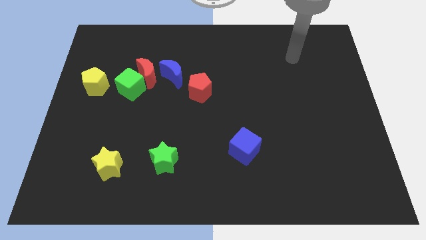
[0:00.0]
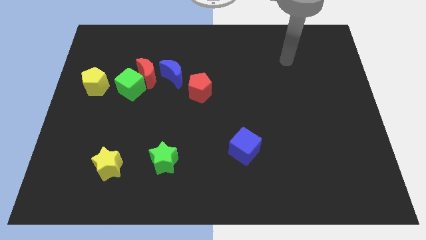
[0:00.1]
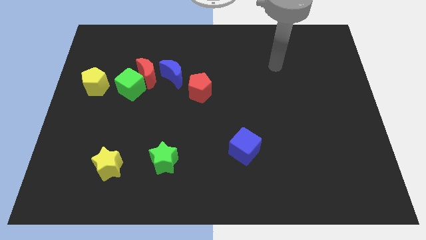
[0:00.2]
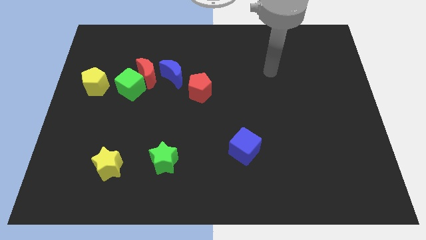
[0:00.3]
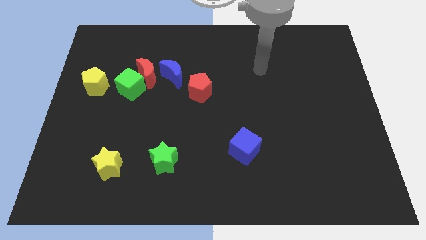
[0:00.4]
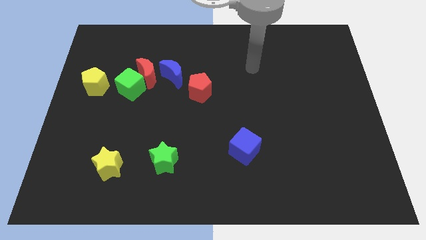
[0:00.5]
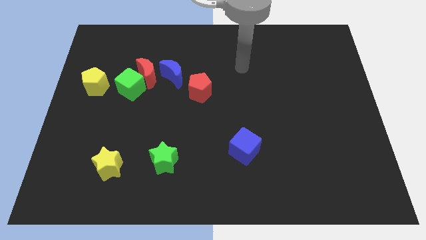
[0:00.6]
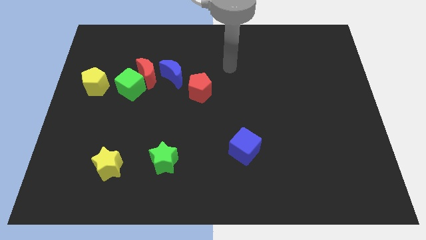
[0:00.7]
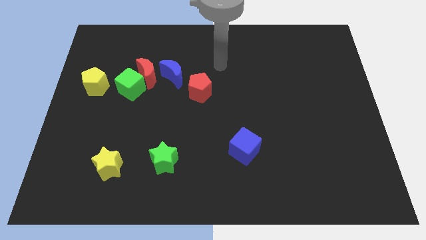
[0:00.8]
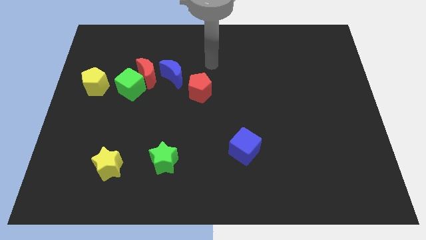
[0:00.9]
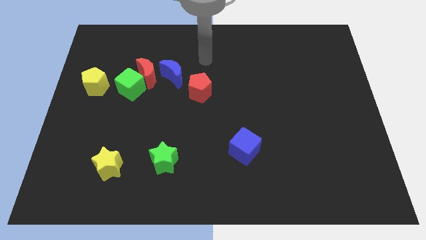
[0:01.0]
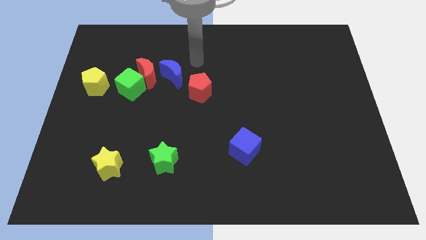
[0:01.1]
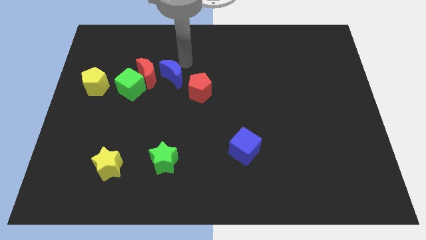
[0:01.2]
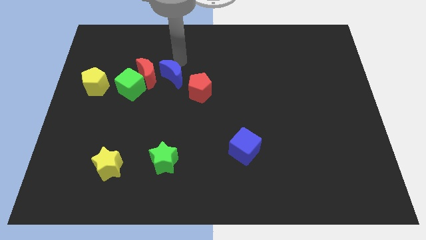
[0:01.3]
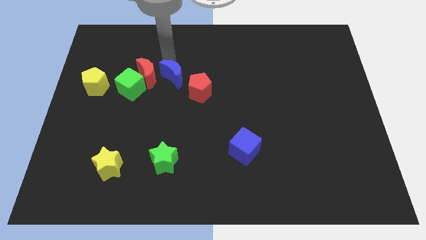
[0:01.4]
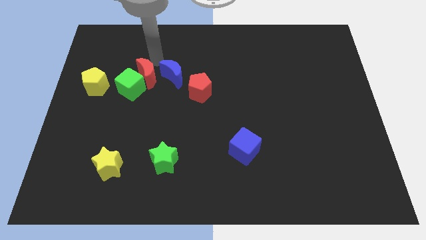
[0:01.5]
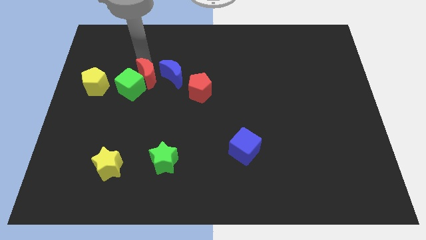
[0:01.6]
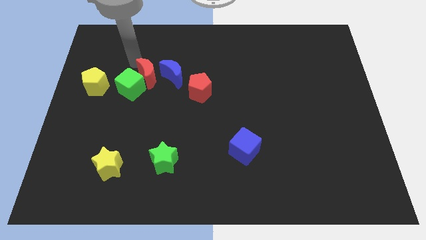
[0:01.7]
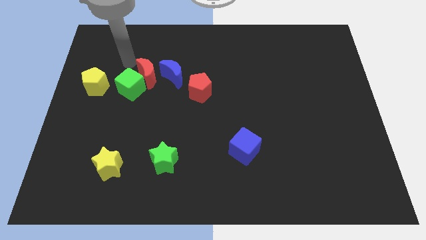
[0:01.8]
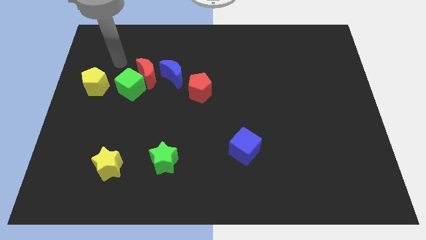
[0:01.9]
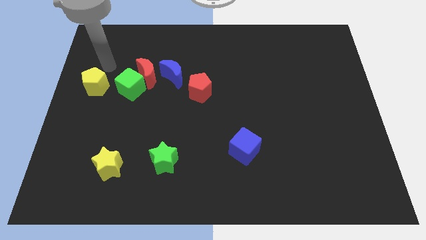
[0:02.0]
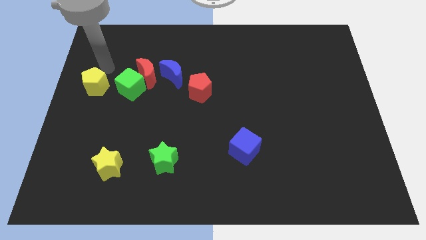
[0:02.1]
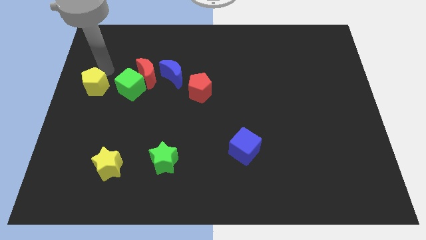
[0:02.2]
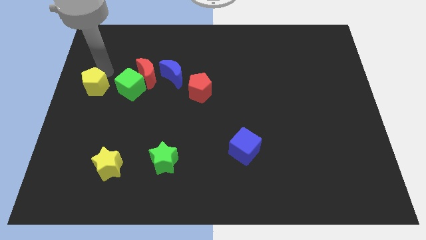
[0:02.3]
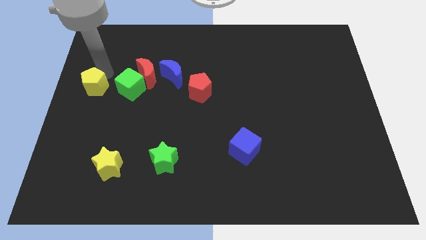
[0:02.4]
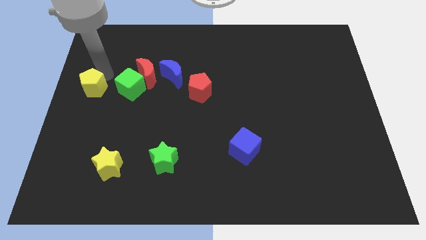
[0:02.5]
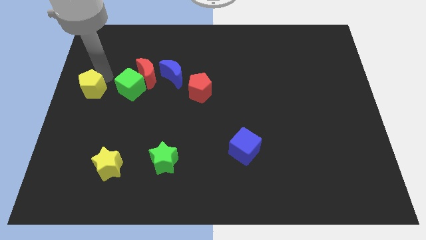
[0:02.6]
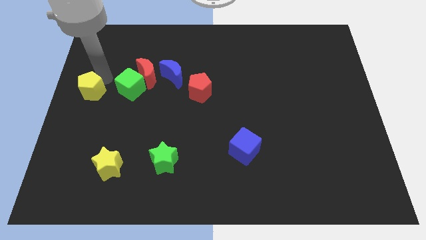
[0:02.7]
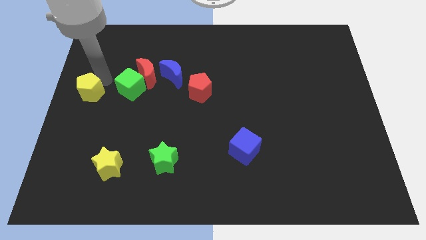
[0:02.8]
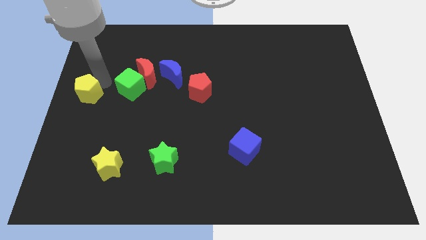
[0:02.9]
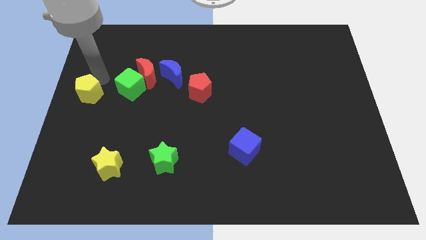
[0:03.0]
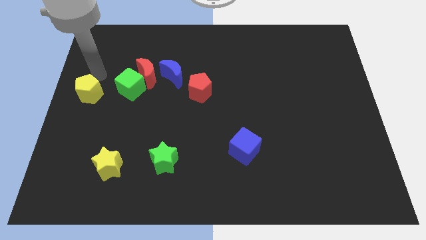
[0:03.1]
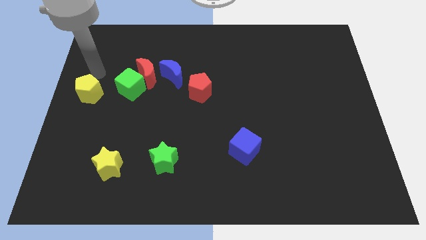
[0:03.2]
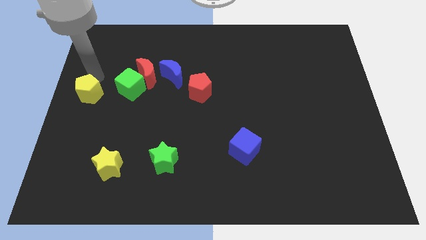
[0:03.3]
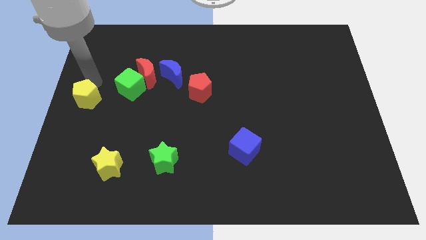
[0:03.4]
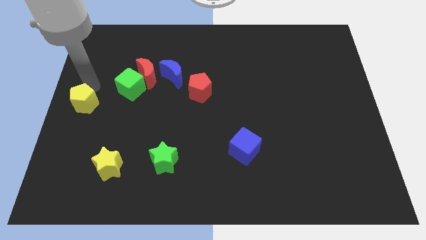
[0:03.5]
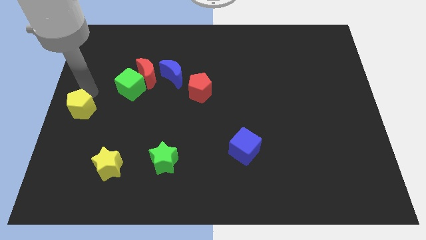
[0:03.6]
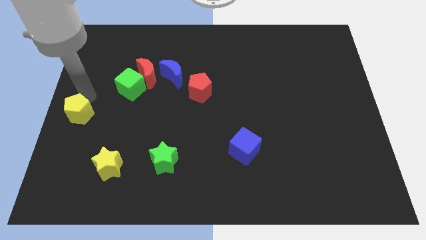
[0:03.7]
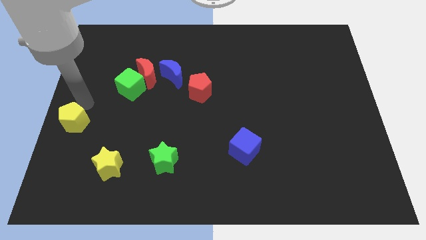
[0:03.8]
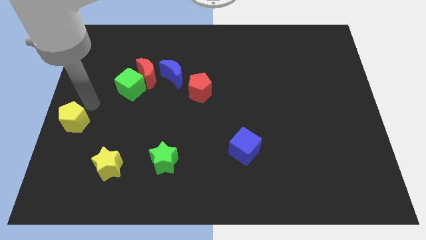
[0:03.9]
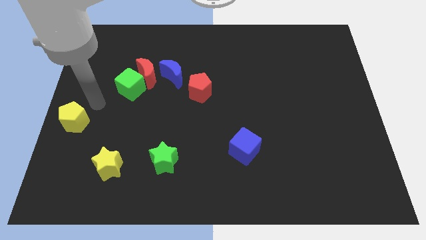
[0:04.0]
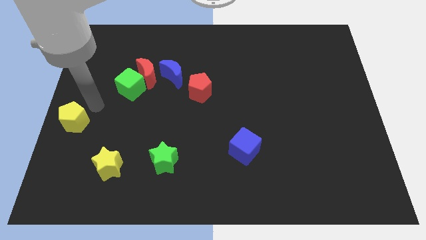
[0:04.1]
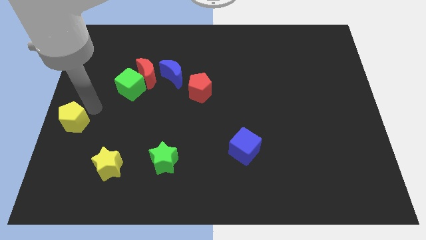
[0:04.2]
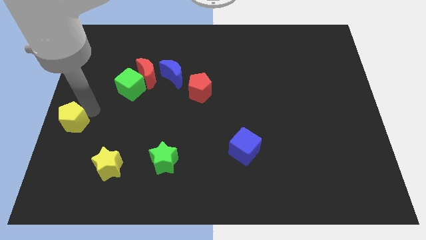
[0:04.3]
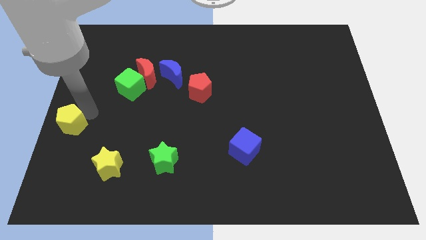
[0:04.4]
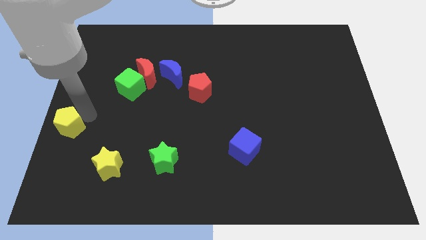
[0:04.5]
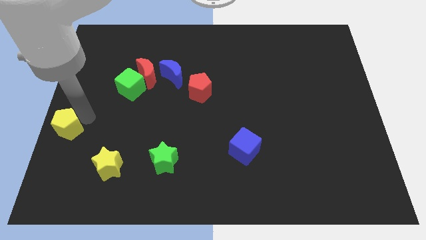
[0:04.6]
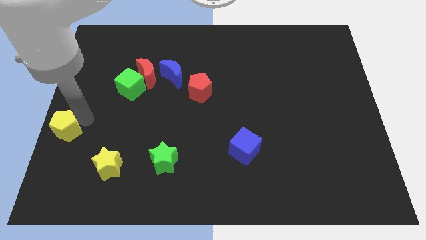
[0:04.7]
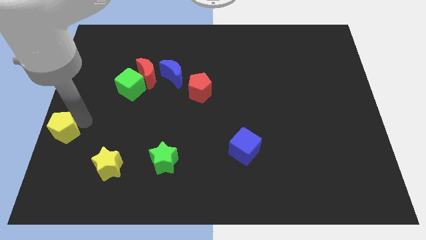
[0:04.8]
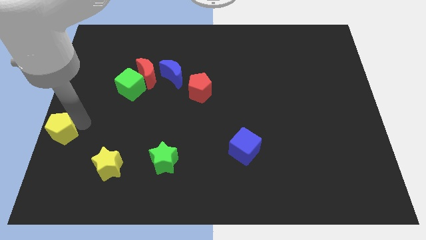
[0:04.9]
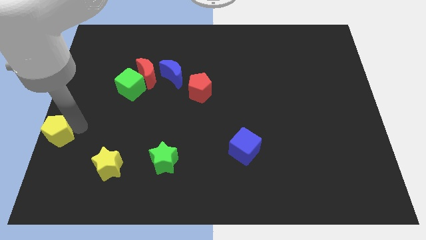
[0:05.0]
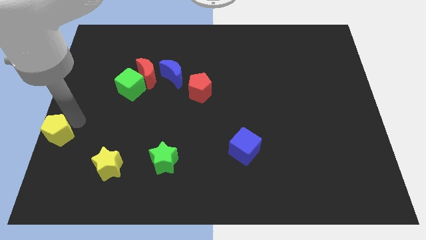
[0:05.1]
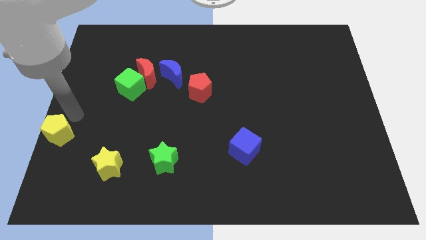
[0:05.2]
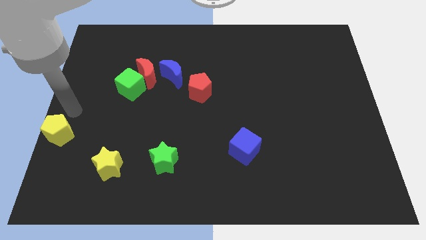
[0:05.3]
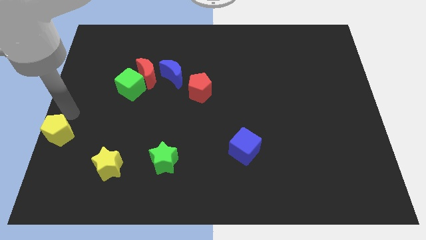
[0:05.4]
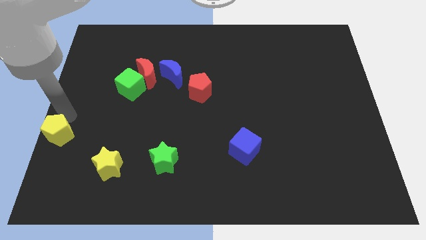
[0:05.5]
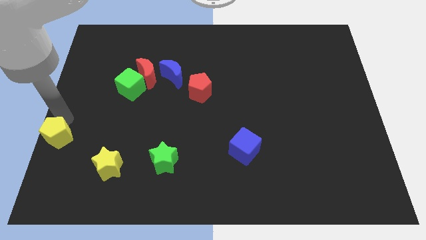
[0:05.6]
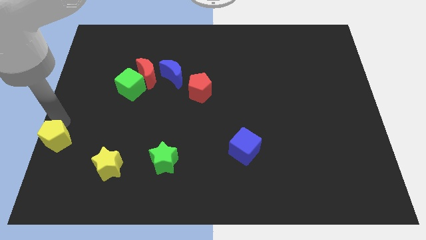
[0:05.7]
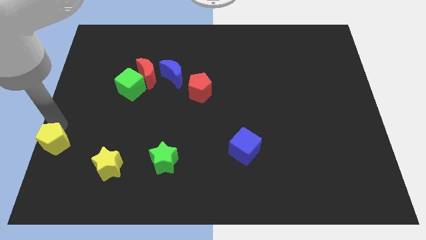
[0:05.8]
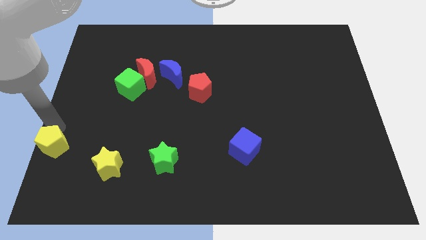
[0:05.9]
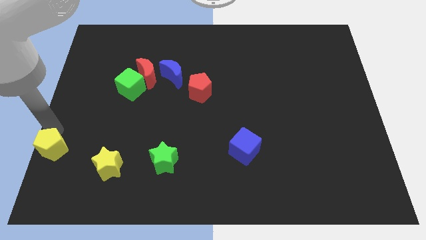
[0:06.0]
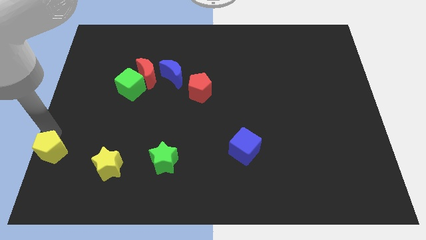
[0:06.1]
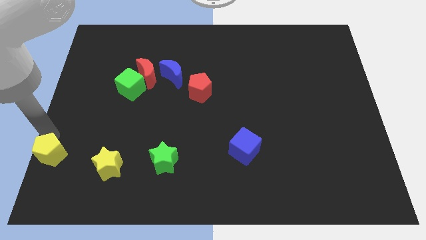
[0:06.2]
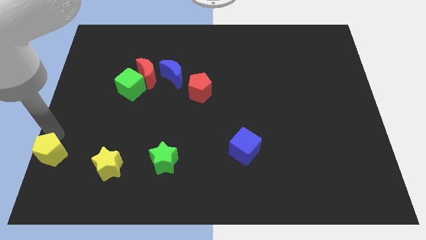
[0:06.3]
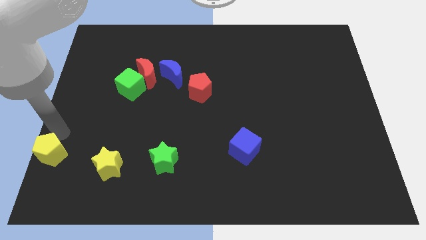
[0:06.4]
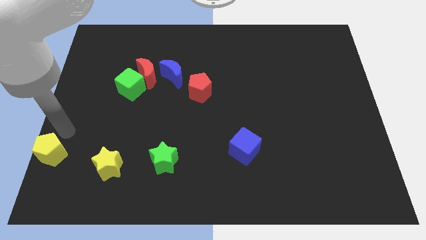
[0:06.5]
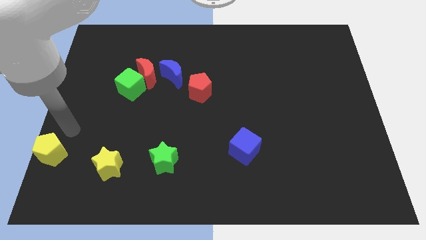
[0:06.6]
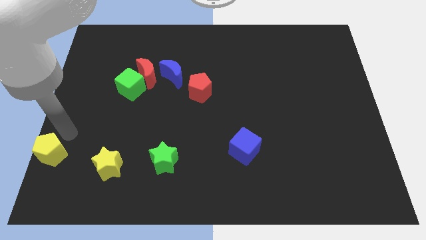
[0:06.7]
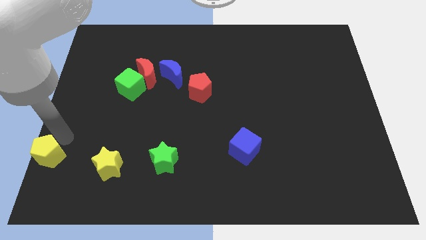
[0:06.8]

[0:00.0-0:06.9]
slide the yellow pentagon to the bottom left corner

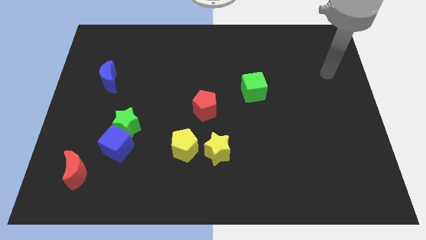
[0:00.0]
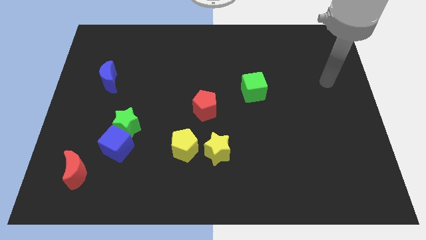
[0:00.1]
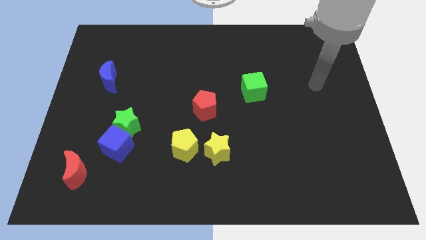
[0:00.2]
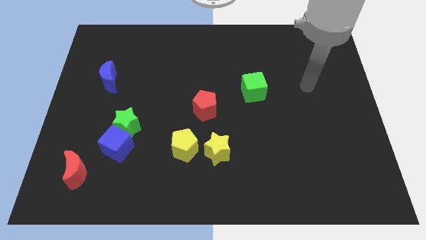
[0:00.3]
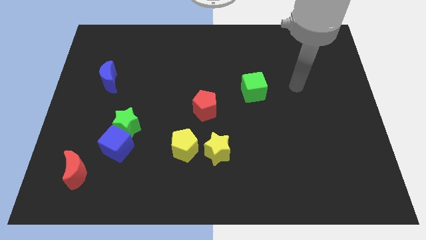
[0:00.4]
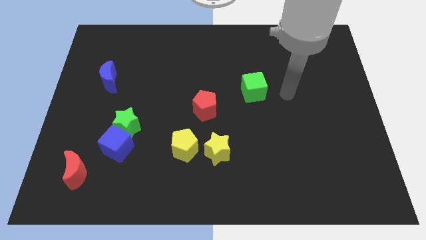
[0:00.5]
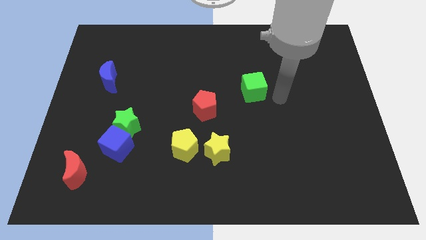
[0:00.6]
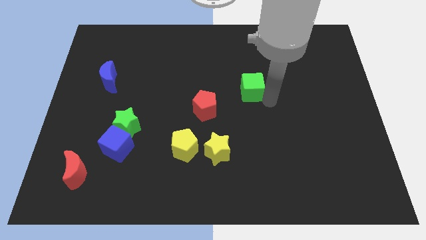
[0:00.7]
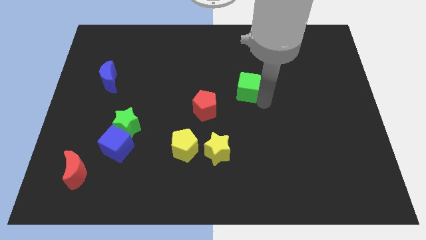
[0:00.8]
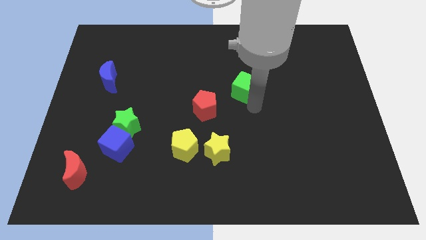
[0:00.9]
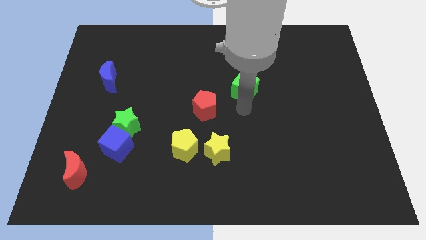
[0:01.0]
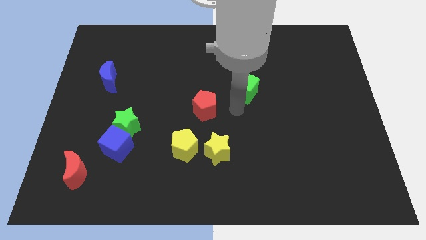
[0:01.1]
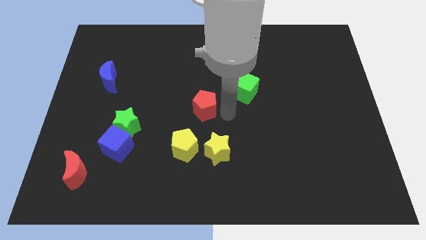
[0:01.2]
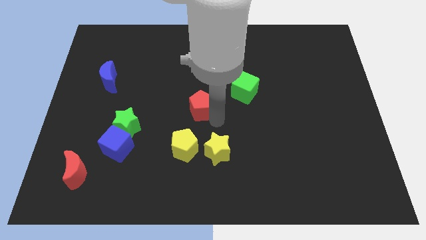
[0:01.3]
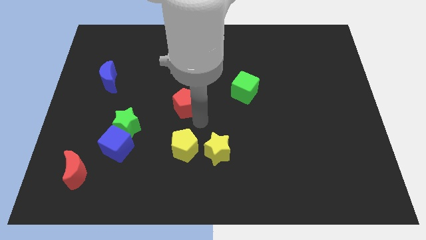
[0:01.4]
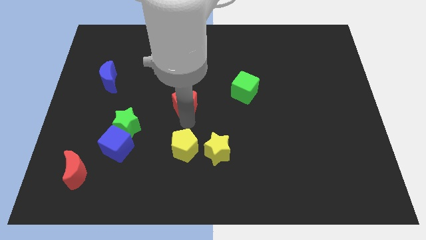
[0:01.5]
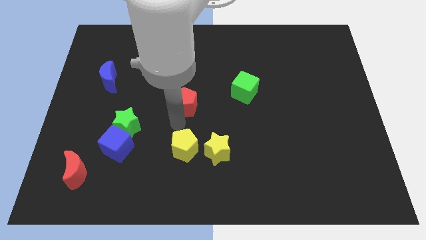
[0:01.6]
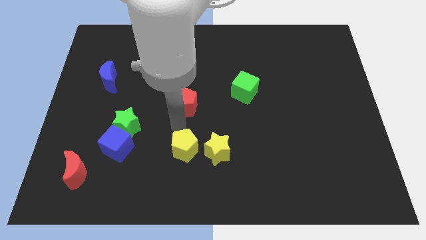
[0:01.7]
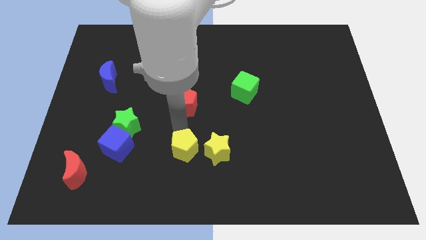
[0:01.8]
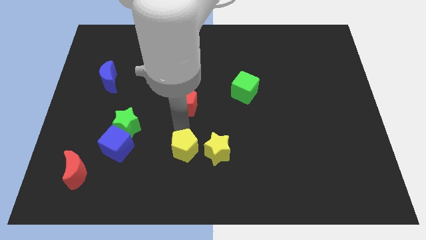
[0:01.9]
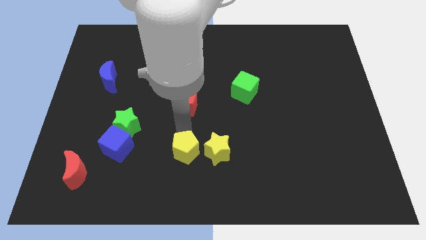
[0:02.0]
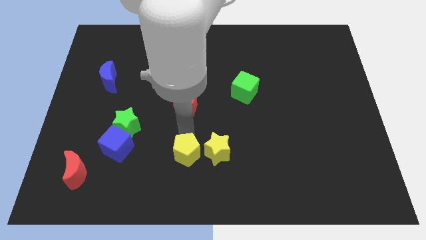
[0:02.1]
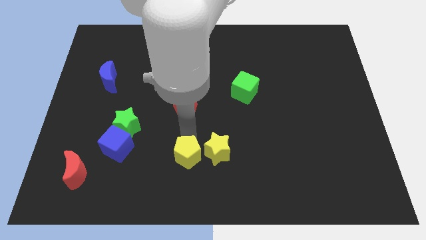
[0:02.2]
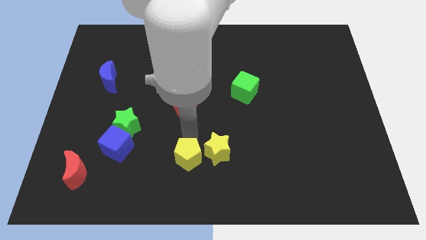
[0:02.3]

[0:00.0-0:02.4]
push the yellow pentagon to the bottom side
